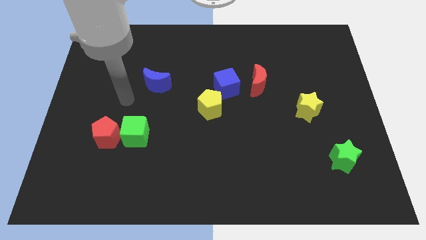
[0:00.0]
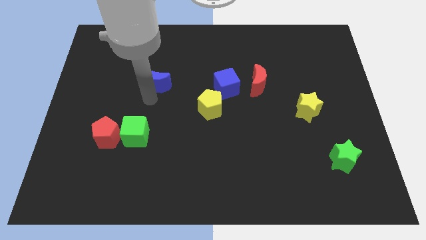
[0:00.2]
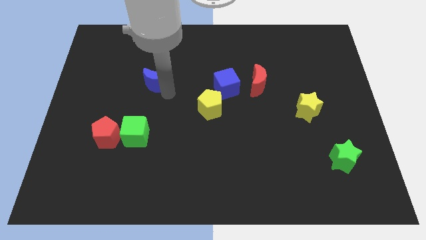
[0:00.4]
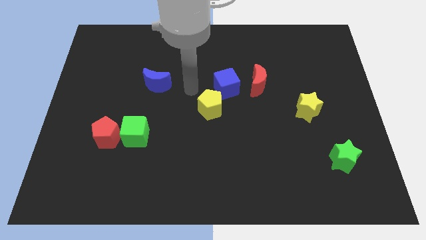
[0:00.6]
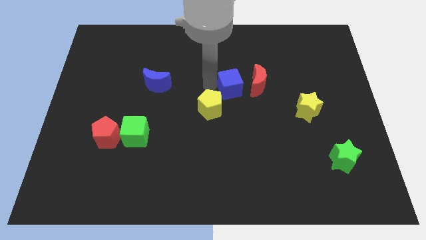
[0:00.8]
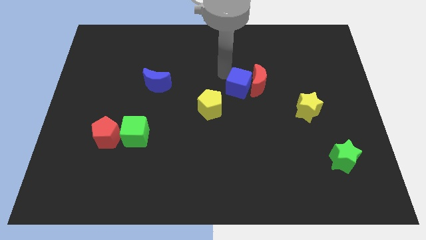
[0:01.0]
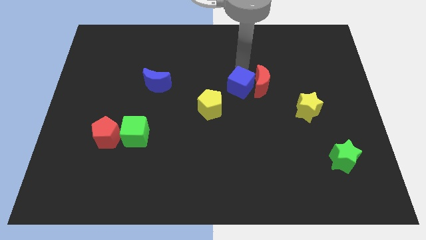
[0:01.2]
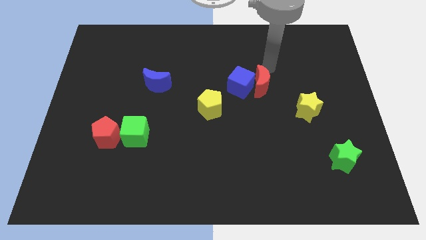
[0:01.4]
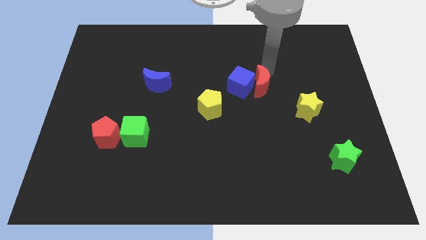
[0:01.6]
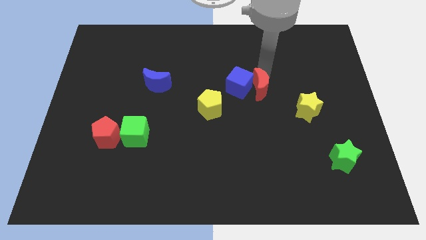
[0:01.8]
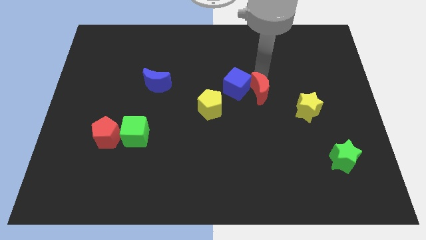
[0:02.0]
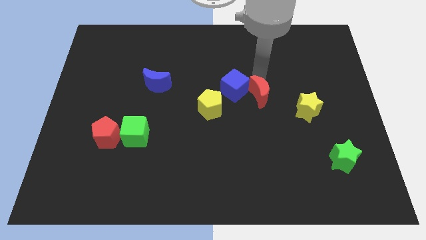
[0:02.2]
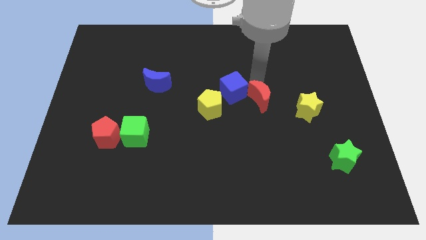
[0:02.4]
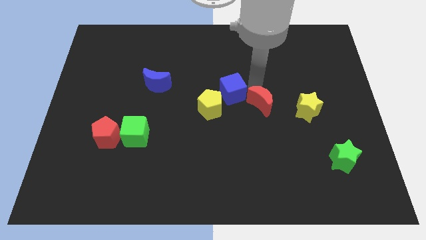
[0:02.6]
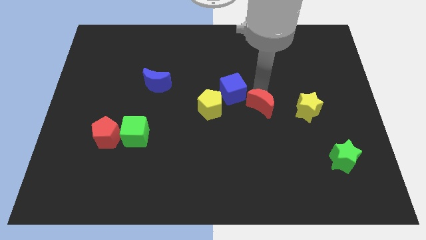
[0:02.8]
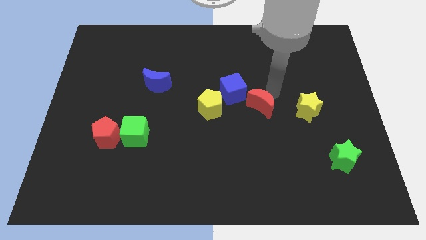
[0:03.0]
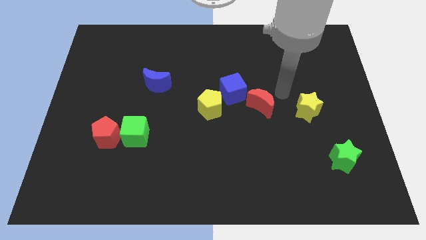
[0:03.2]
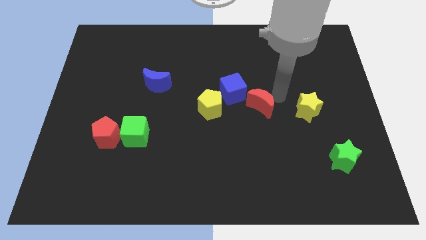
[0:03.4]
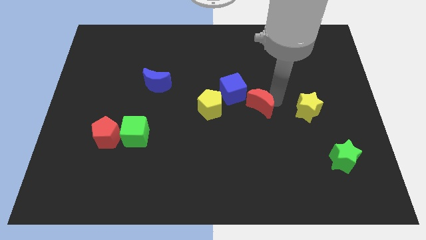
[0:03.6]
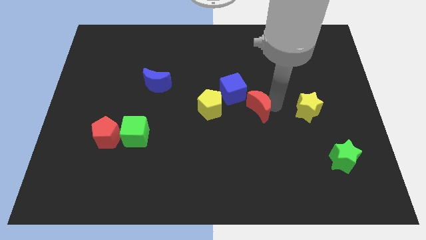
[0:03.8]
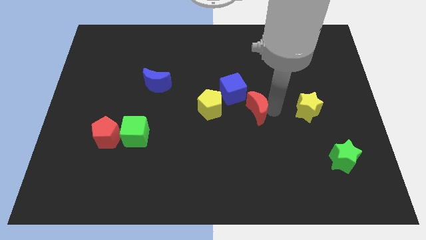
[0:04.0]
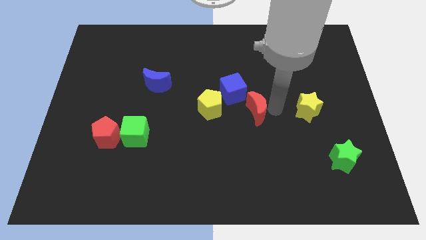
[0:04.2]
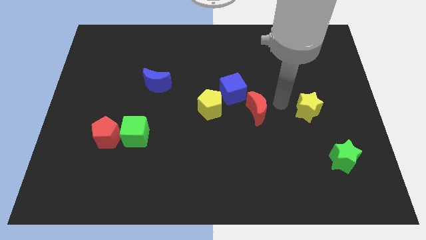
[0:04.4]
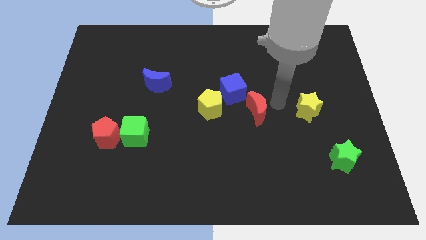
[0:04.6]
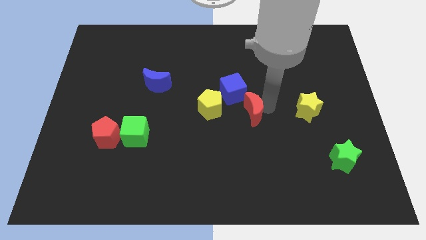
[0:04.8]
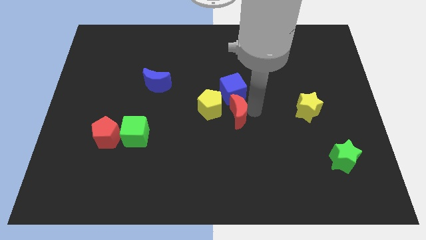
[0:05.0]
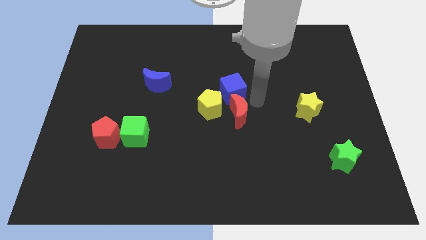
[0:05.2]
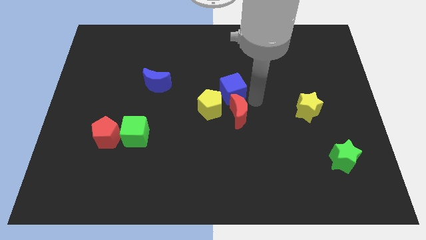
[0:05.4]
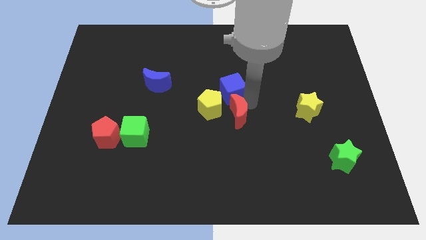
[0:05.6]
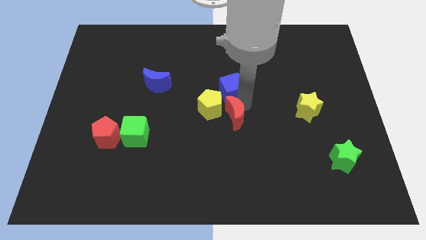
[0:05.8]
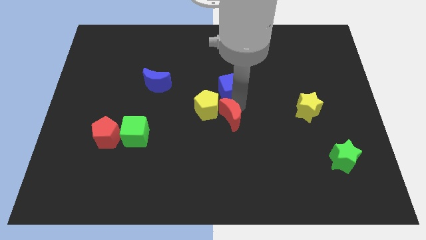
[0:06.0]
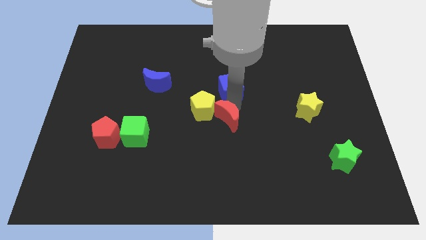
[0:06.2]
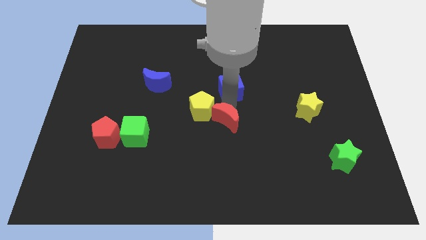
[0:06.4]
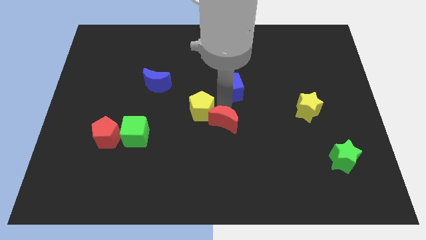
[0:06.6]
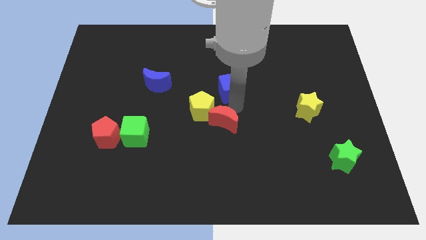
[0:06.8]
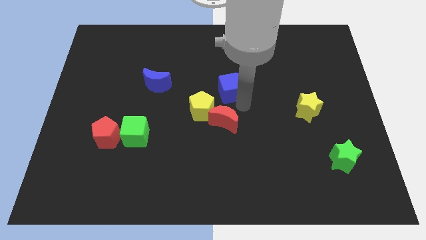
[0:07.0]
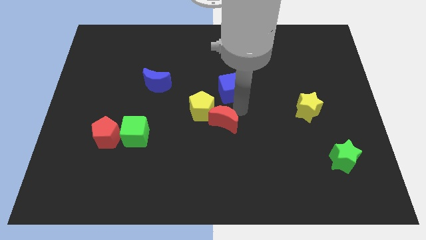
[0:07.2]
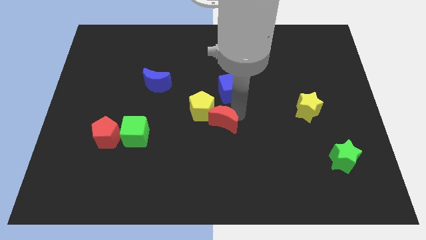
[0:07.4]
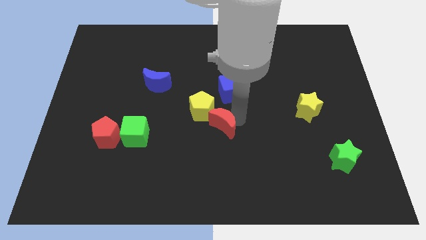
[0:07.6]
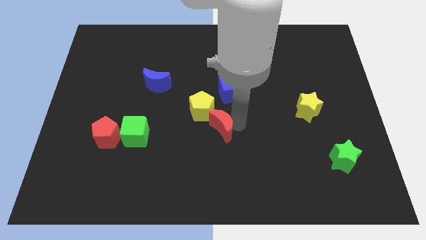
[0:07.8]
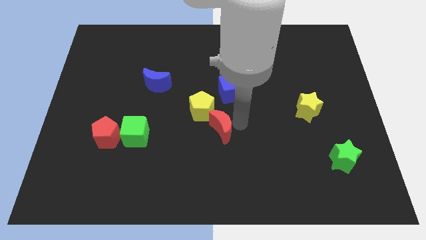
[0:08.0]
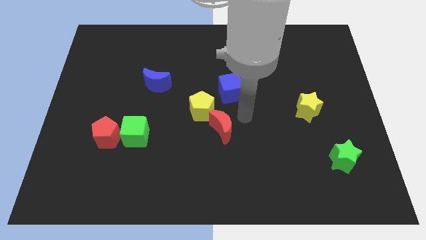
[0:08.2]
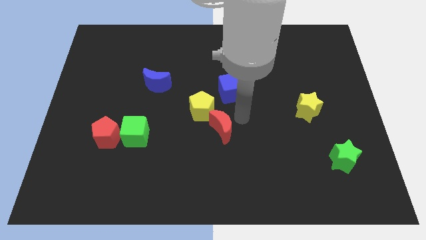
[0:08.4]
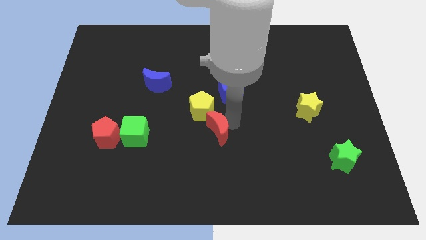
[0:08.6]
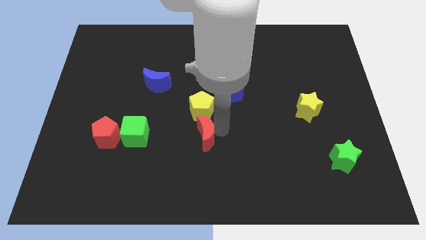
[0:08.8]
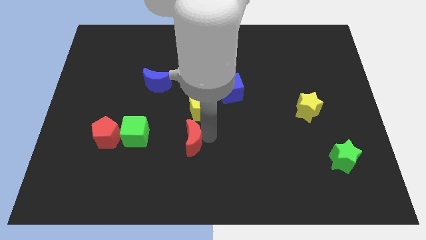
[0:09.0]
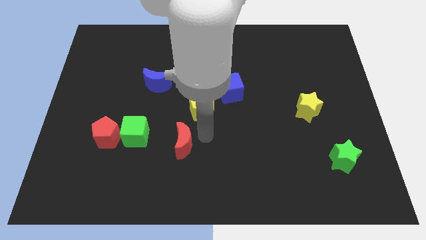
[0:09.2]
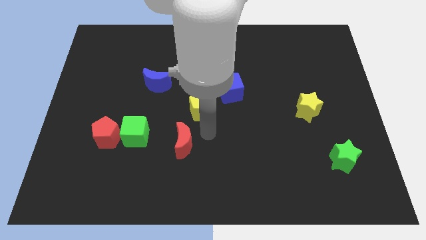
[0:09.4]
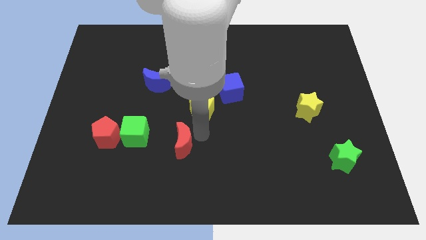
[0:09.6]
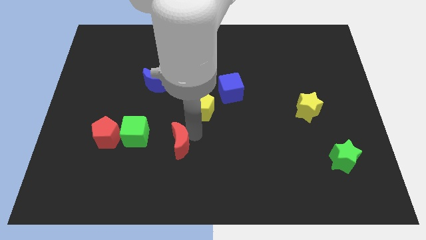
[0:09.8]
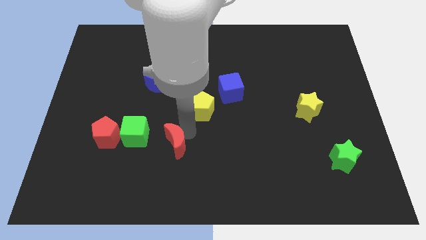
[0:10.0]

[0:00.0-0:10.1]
slide the red moon diagonally down and to the right of the green cube
